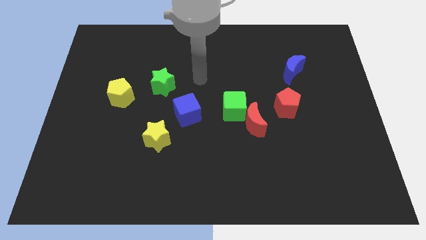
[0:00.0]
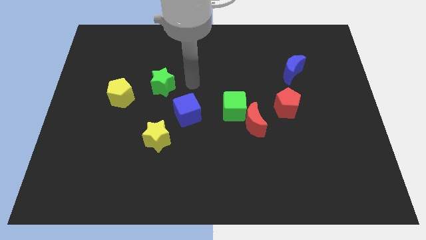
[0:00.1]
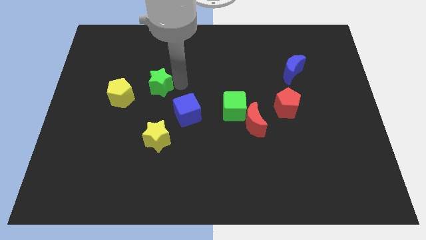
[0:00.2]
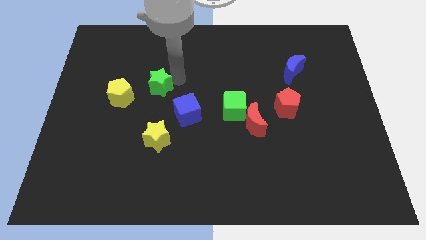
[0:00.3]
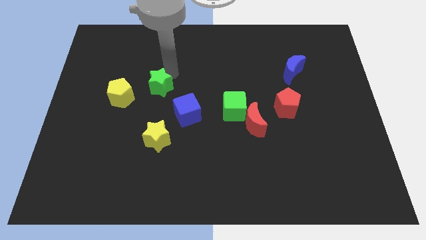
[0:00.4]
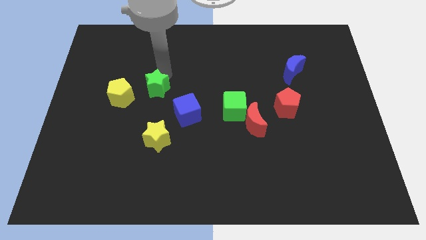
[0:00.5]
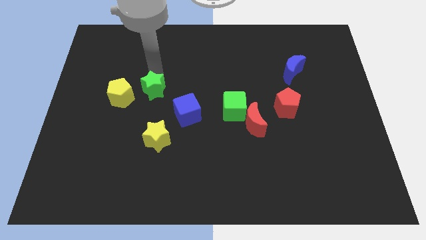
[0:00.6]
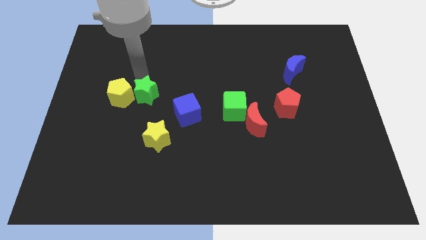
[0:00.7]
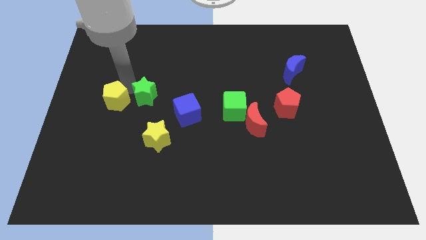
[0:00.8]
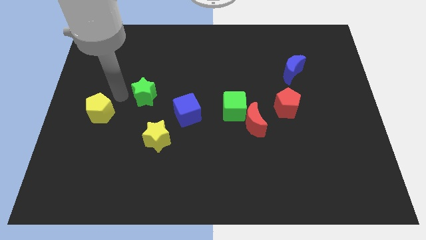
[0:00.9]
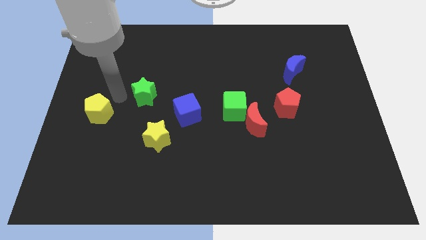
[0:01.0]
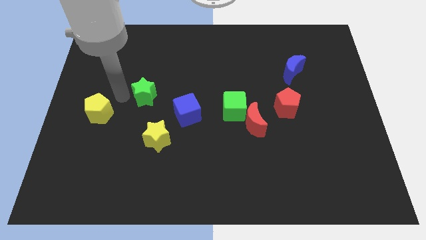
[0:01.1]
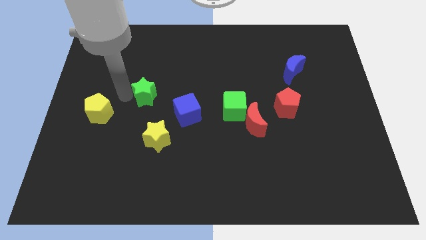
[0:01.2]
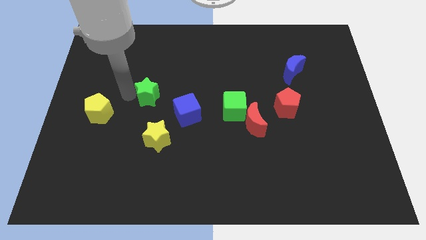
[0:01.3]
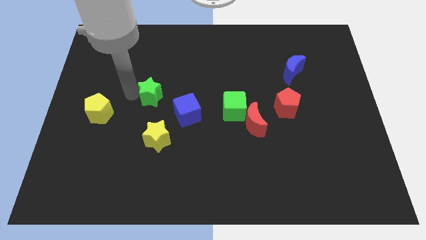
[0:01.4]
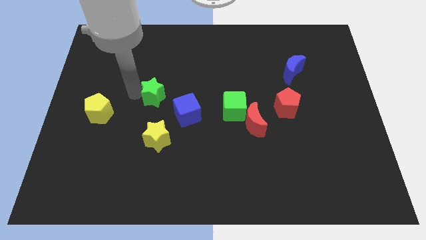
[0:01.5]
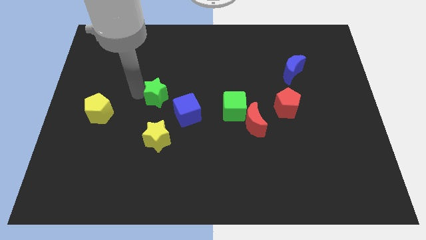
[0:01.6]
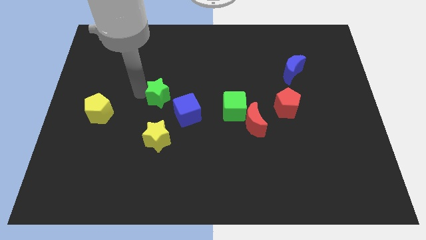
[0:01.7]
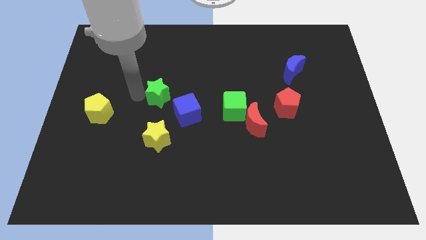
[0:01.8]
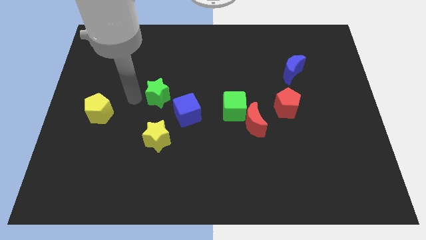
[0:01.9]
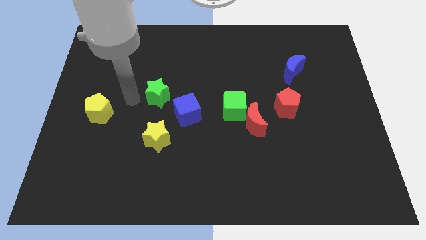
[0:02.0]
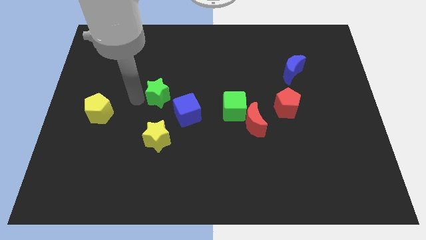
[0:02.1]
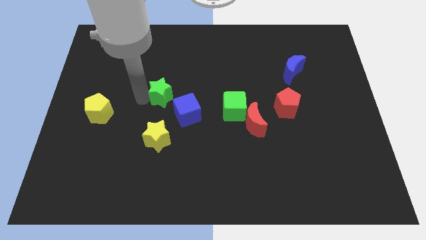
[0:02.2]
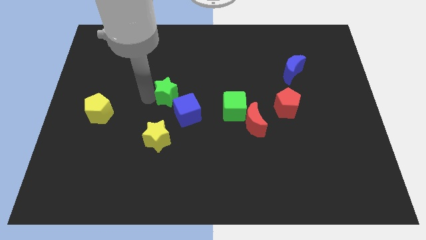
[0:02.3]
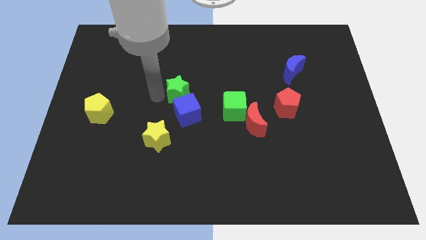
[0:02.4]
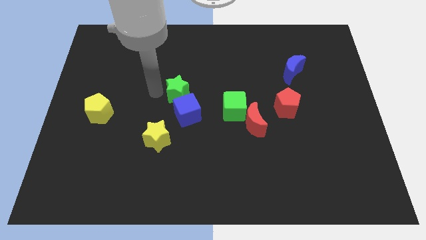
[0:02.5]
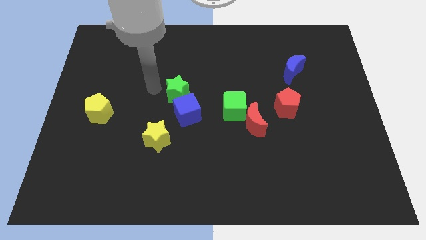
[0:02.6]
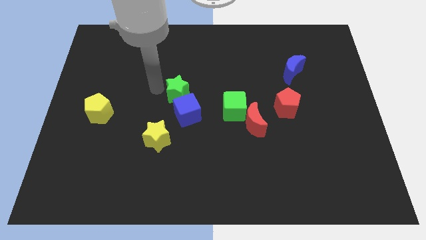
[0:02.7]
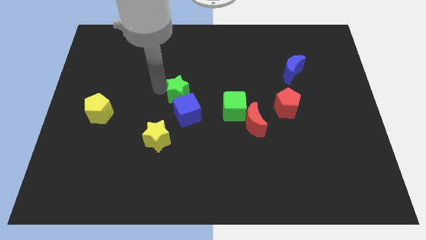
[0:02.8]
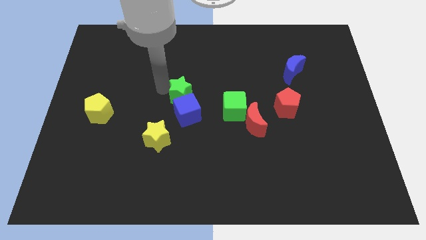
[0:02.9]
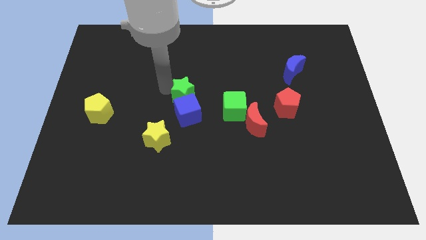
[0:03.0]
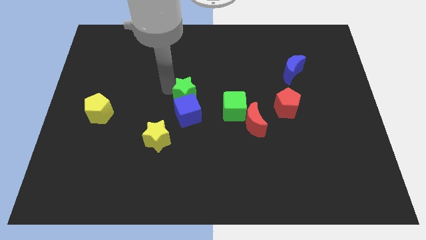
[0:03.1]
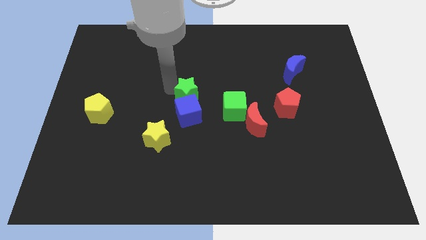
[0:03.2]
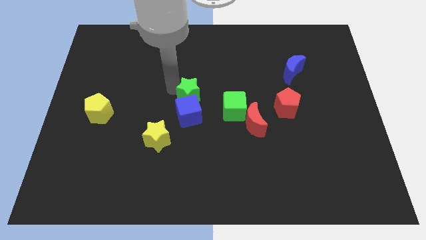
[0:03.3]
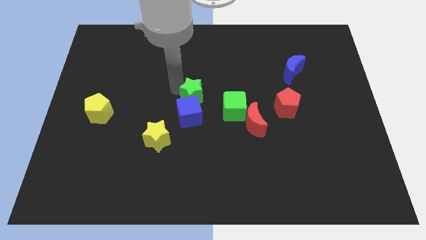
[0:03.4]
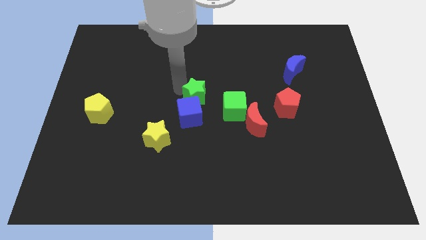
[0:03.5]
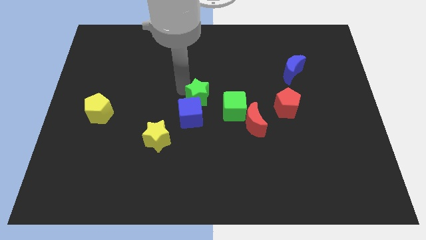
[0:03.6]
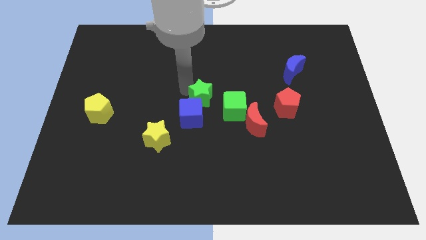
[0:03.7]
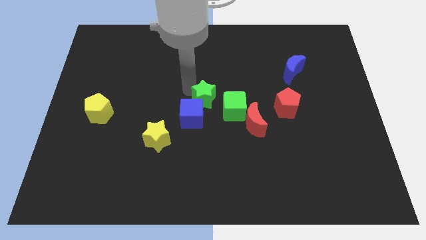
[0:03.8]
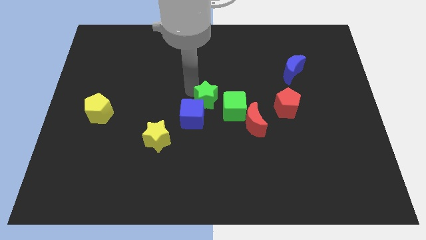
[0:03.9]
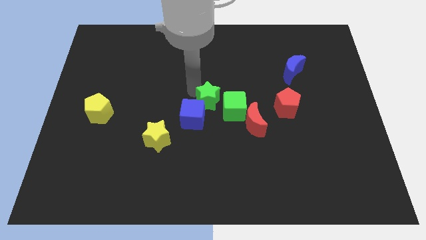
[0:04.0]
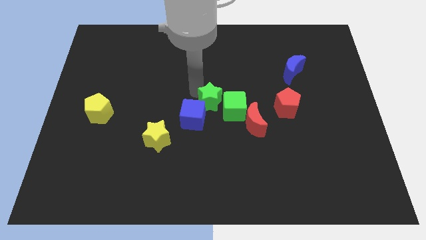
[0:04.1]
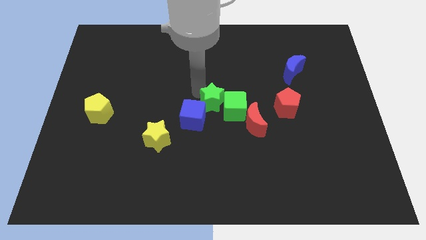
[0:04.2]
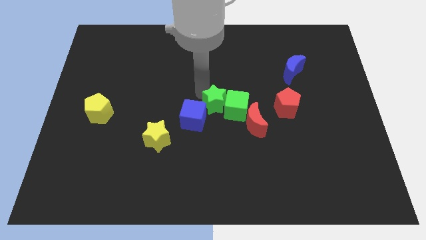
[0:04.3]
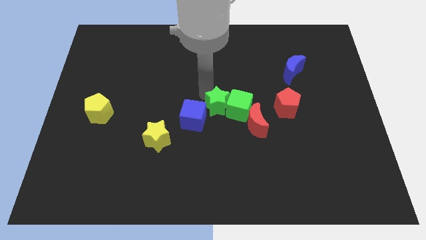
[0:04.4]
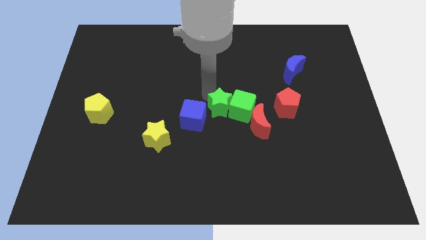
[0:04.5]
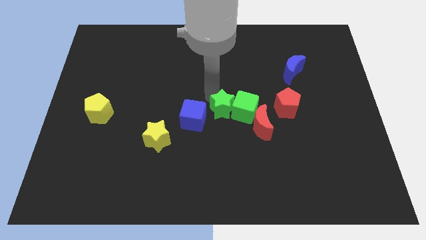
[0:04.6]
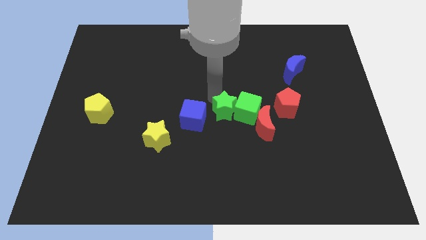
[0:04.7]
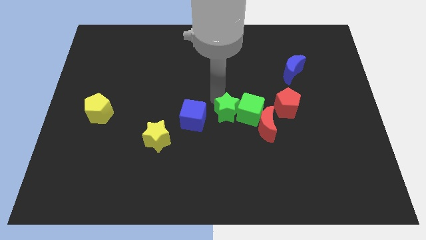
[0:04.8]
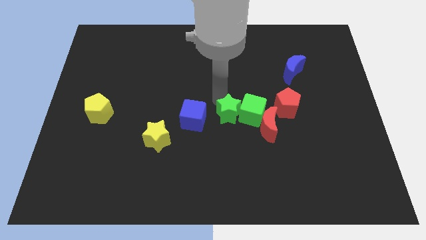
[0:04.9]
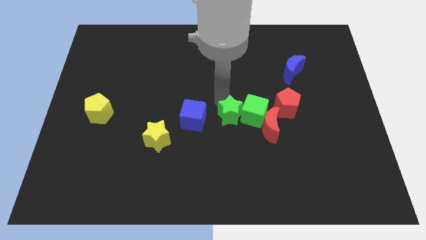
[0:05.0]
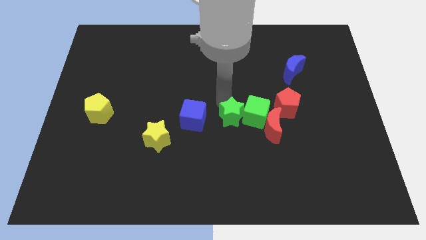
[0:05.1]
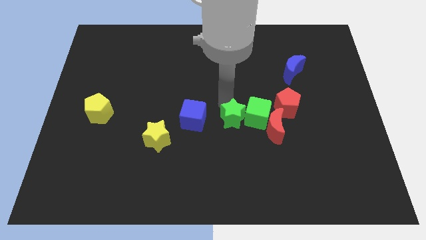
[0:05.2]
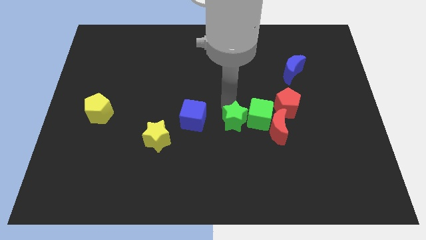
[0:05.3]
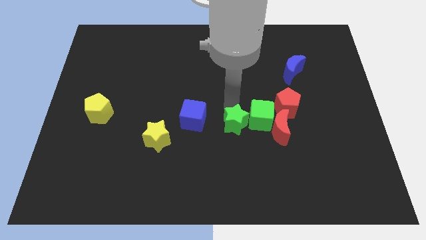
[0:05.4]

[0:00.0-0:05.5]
push the green star downwards and then to the right

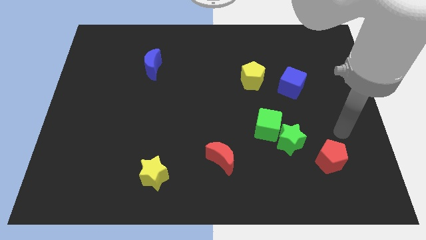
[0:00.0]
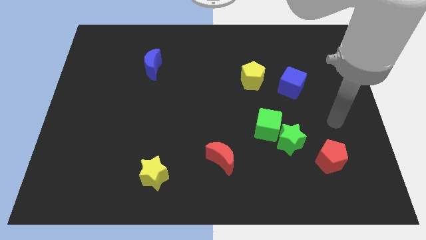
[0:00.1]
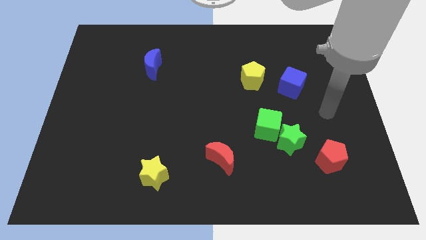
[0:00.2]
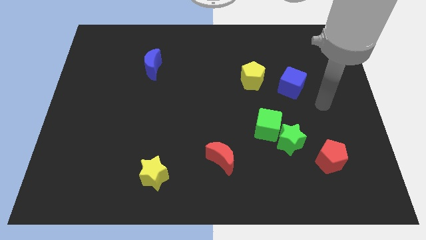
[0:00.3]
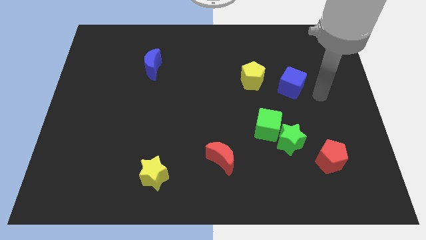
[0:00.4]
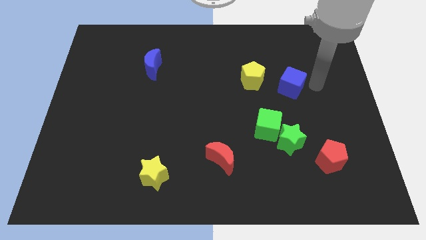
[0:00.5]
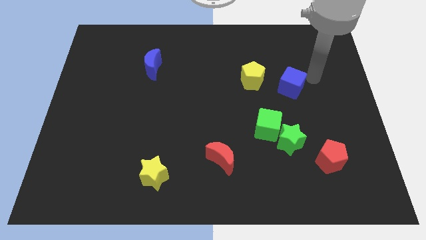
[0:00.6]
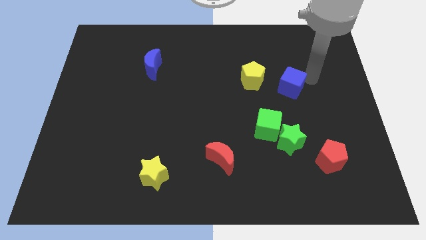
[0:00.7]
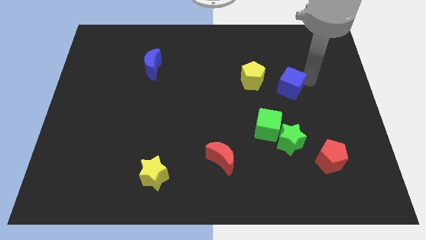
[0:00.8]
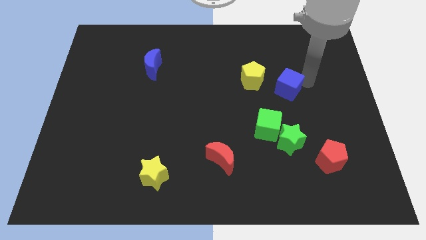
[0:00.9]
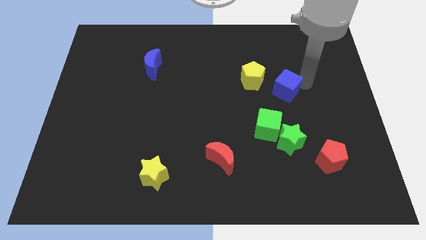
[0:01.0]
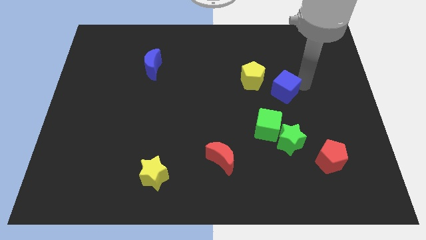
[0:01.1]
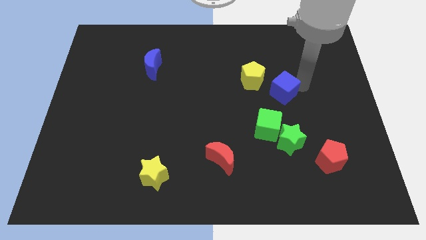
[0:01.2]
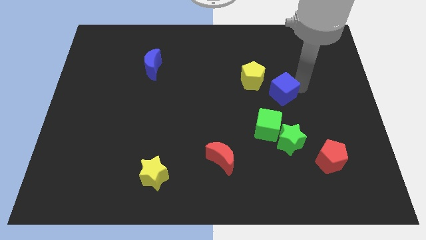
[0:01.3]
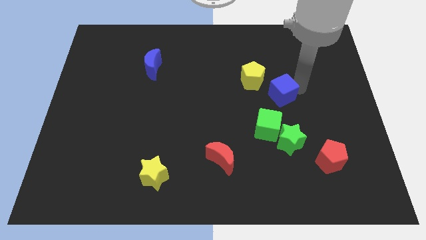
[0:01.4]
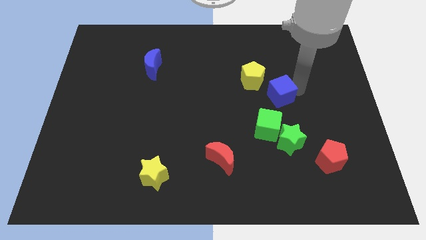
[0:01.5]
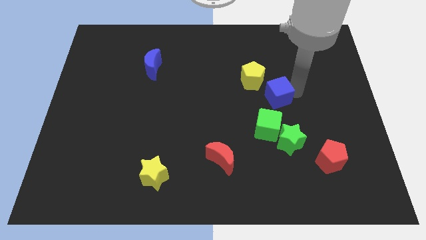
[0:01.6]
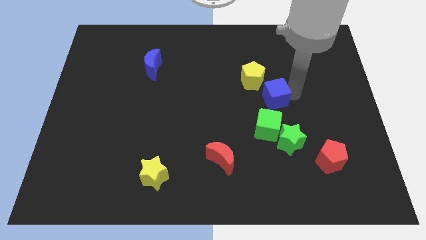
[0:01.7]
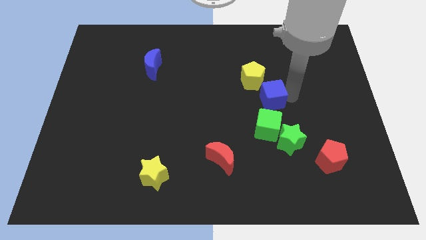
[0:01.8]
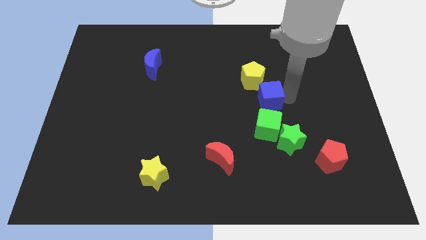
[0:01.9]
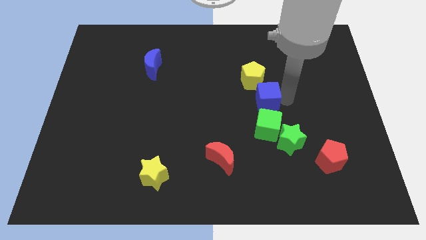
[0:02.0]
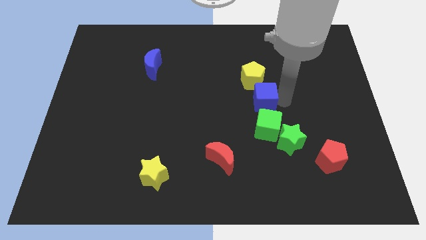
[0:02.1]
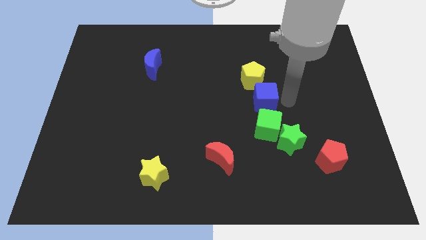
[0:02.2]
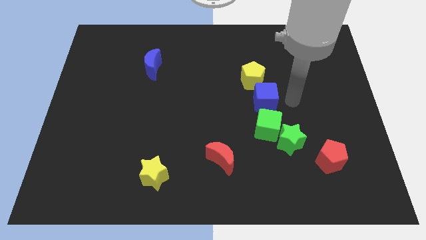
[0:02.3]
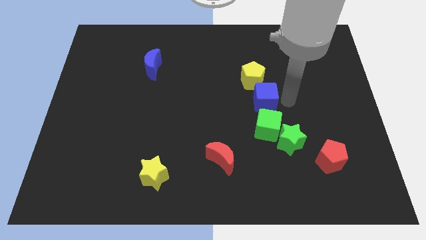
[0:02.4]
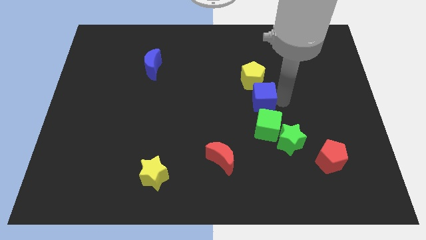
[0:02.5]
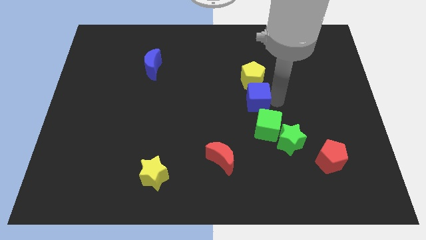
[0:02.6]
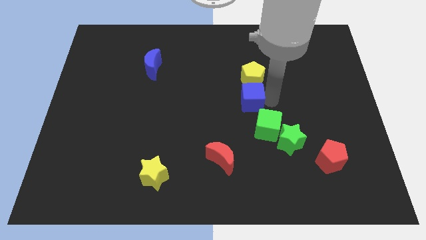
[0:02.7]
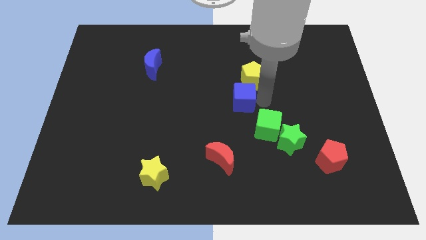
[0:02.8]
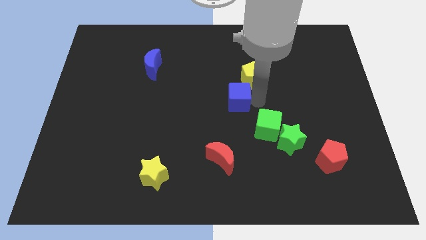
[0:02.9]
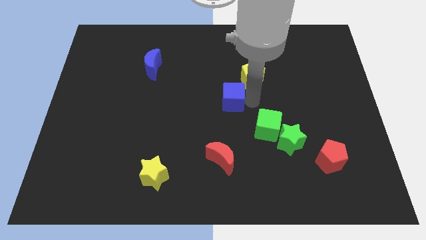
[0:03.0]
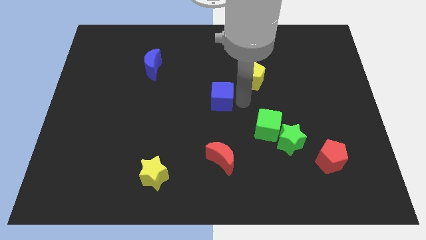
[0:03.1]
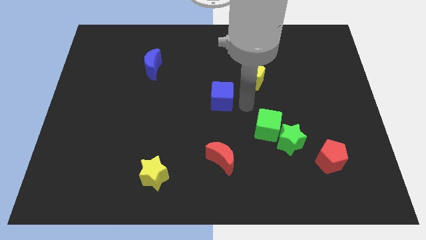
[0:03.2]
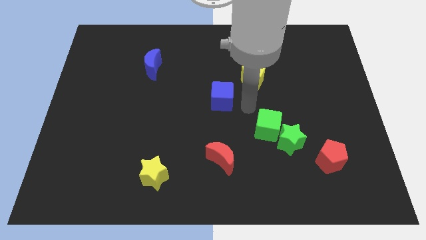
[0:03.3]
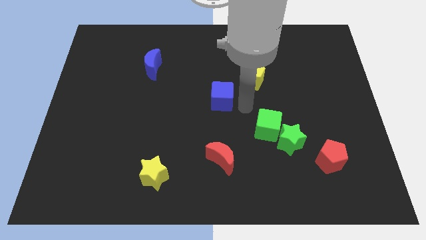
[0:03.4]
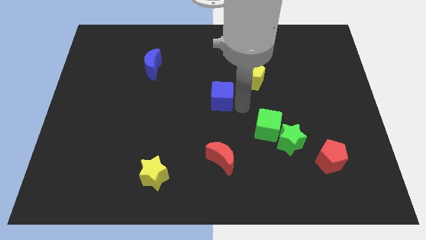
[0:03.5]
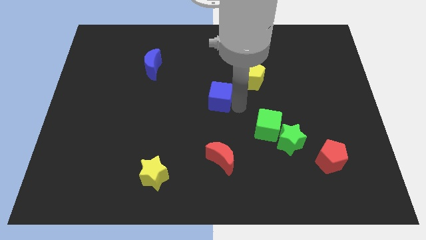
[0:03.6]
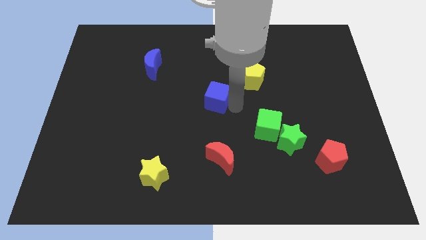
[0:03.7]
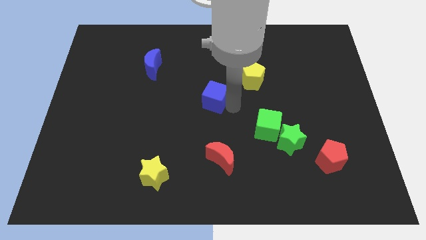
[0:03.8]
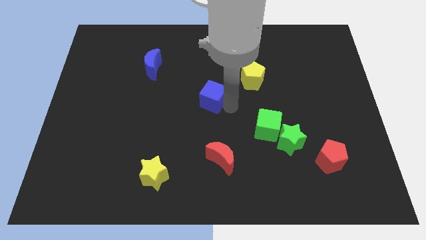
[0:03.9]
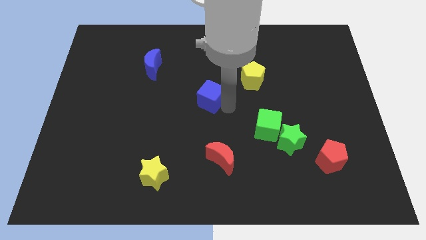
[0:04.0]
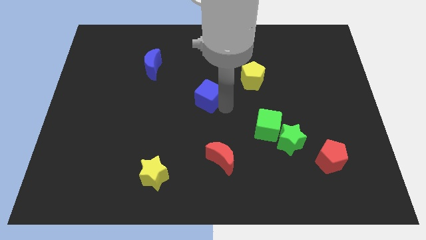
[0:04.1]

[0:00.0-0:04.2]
slide the blue cube left
